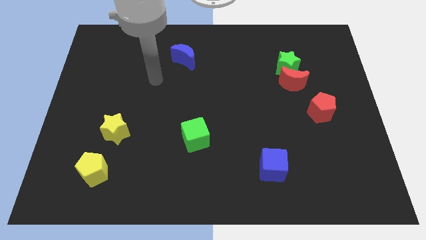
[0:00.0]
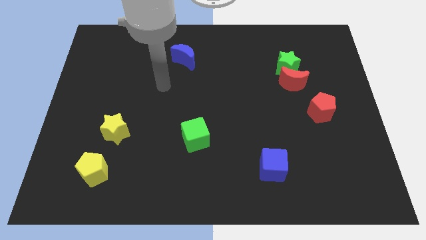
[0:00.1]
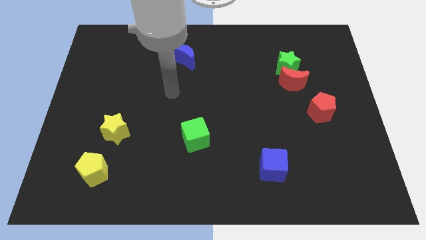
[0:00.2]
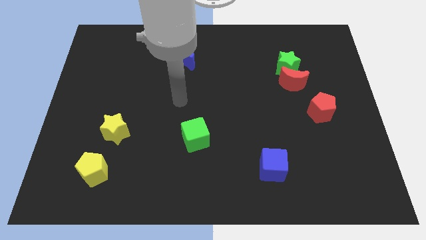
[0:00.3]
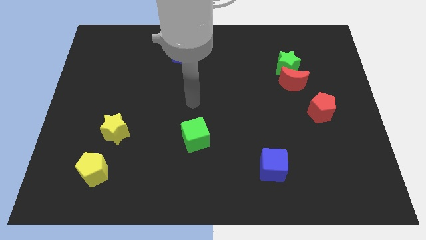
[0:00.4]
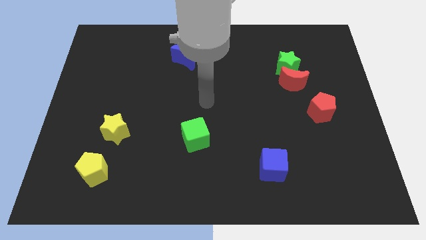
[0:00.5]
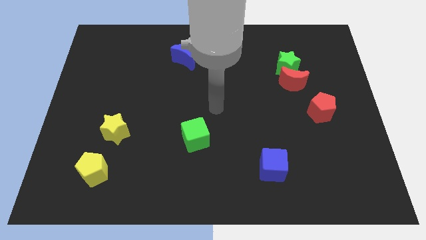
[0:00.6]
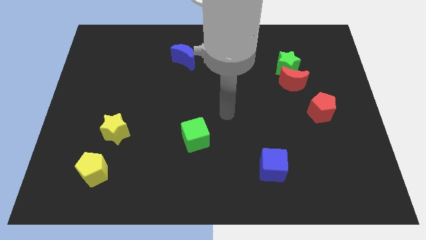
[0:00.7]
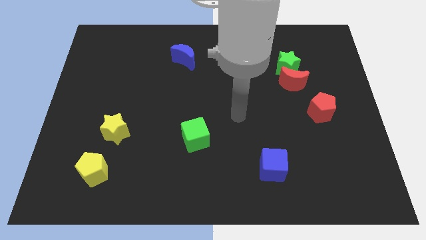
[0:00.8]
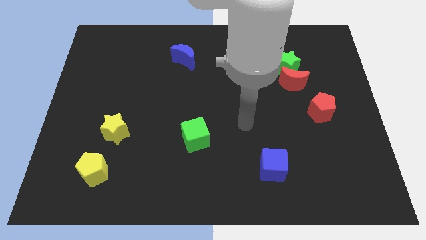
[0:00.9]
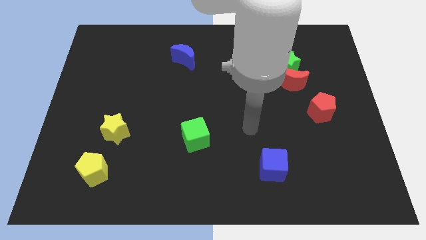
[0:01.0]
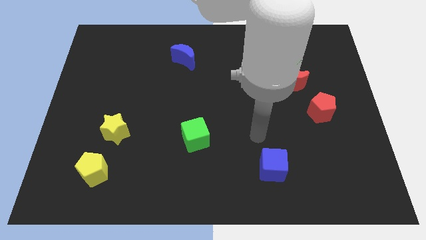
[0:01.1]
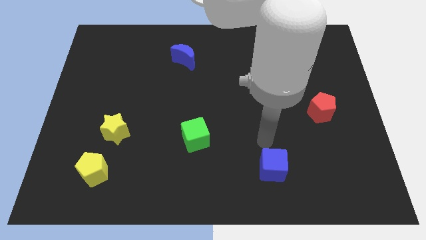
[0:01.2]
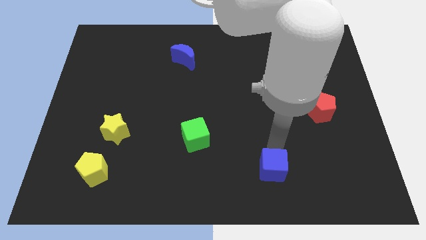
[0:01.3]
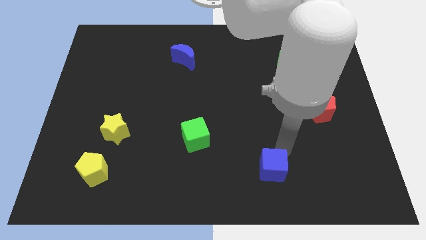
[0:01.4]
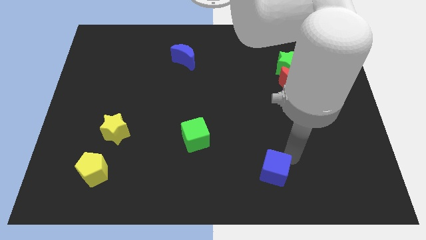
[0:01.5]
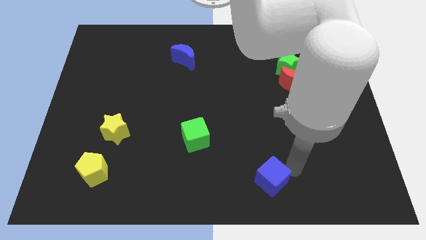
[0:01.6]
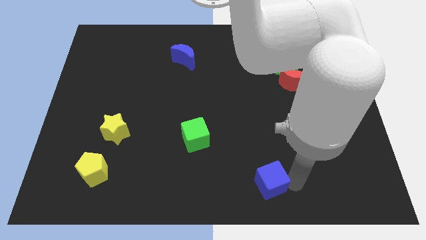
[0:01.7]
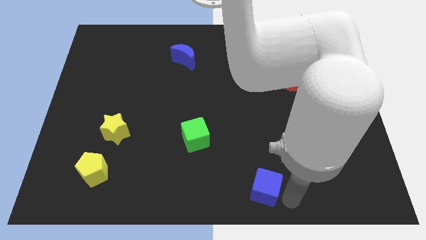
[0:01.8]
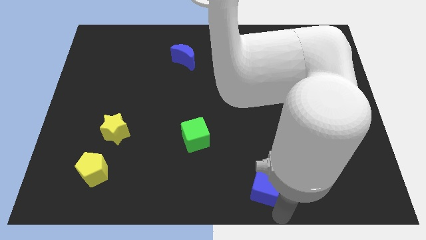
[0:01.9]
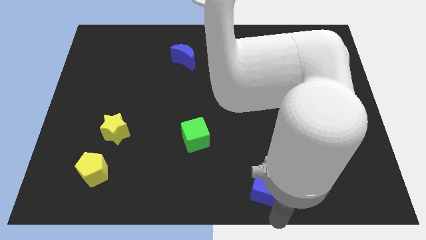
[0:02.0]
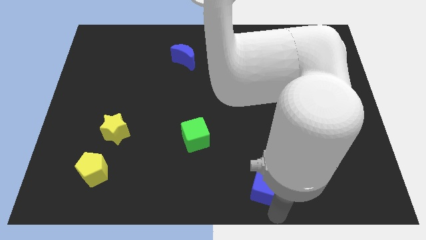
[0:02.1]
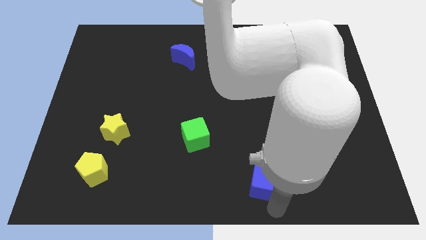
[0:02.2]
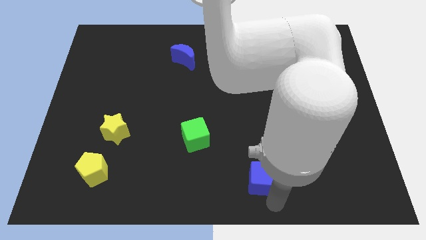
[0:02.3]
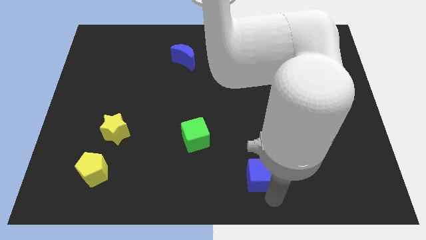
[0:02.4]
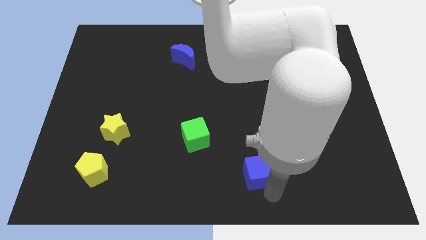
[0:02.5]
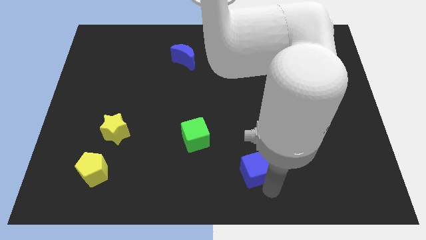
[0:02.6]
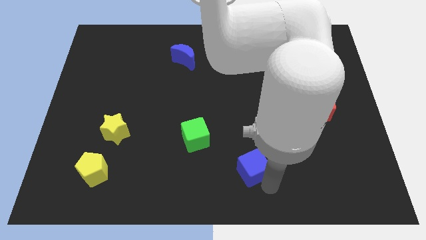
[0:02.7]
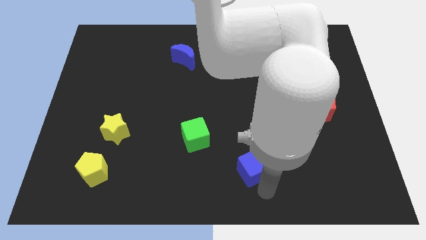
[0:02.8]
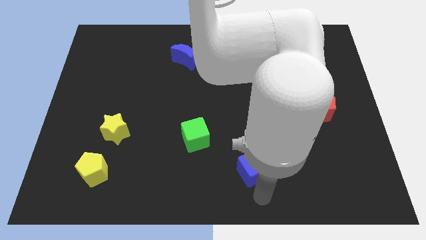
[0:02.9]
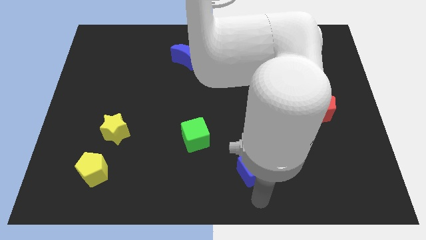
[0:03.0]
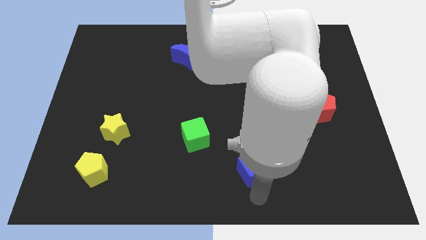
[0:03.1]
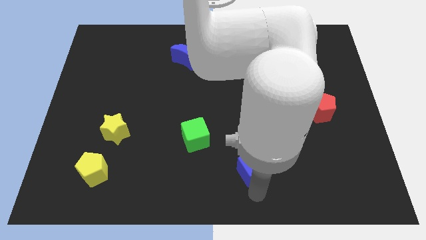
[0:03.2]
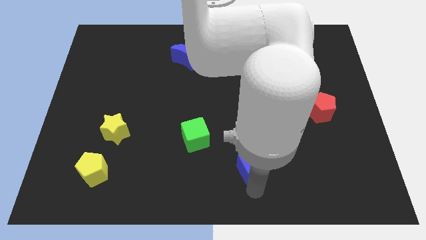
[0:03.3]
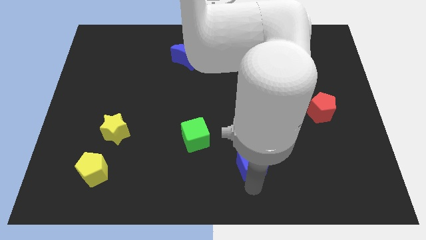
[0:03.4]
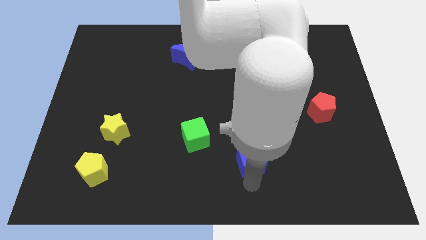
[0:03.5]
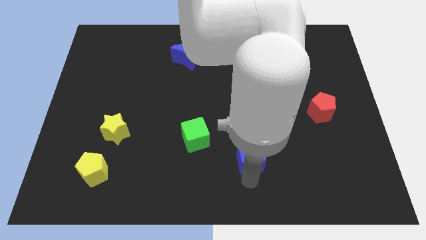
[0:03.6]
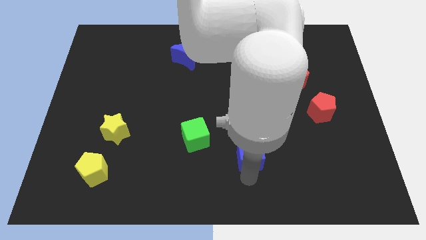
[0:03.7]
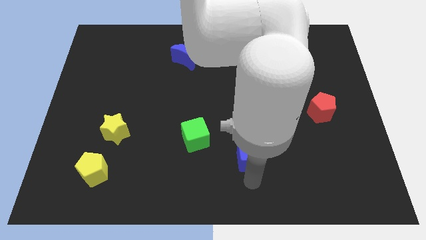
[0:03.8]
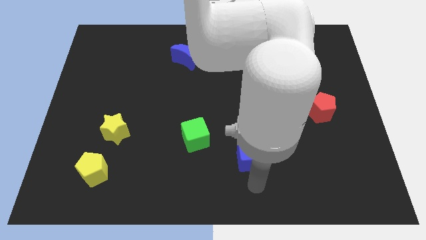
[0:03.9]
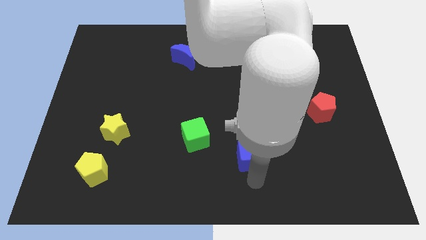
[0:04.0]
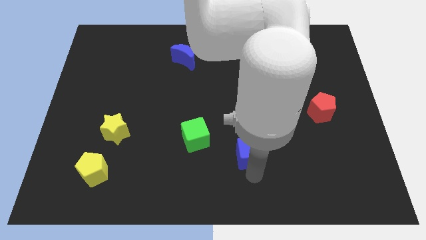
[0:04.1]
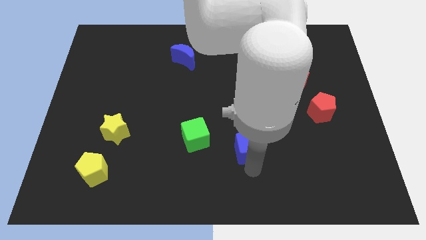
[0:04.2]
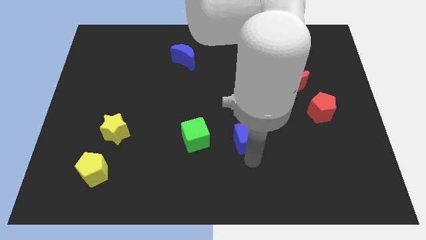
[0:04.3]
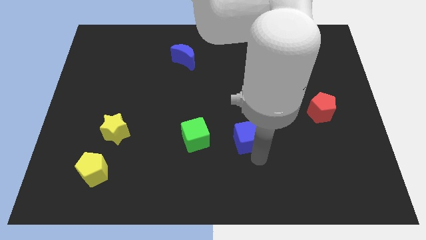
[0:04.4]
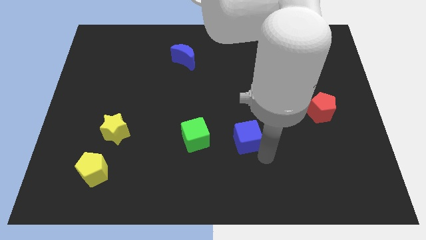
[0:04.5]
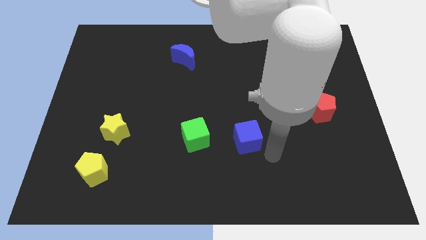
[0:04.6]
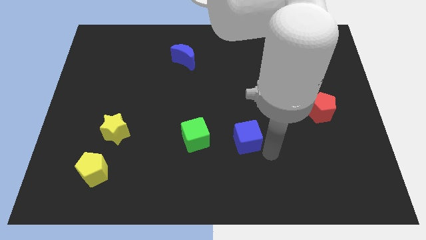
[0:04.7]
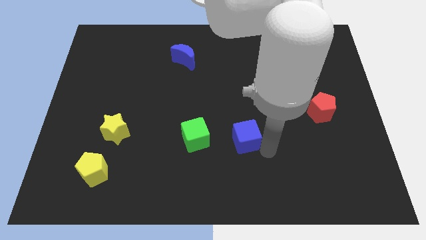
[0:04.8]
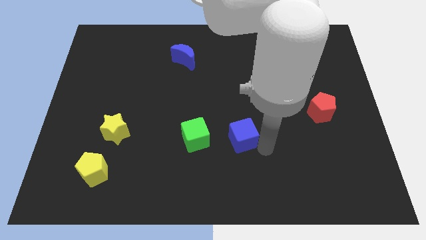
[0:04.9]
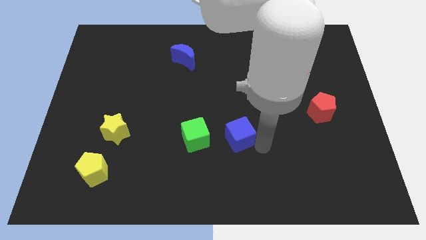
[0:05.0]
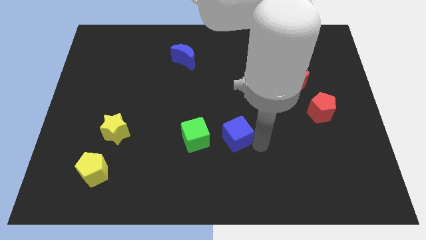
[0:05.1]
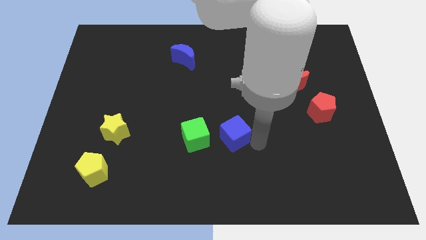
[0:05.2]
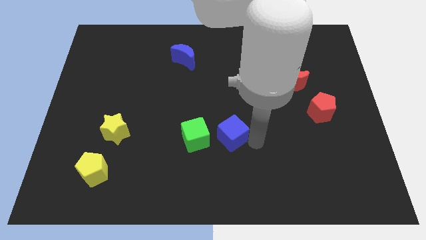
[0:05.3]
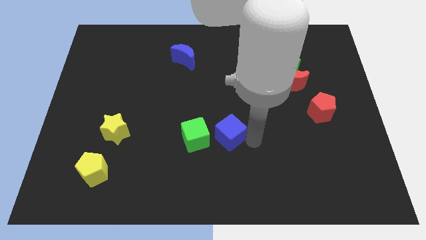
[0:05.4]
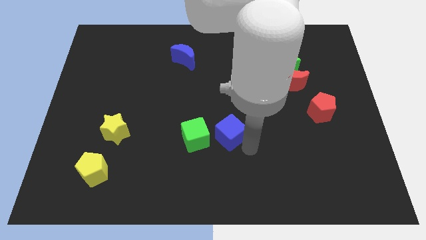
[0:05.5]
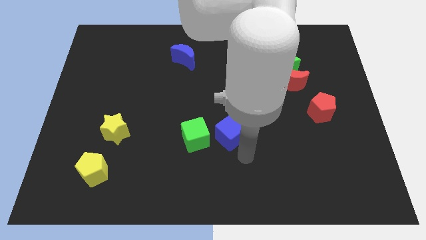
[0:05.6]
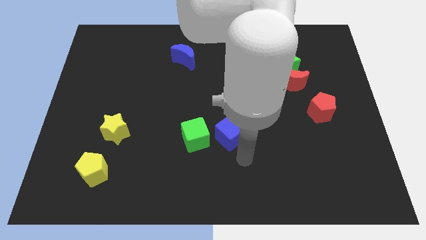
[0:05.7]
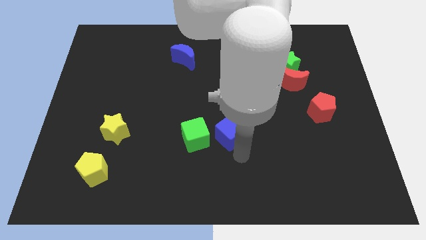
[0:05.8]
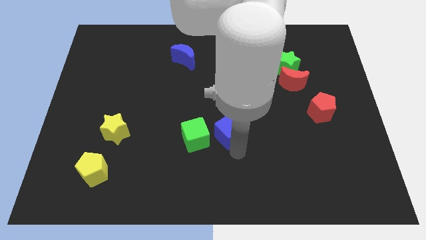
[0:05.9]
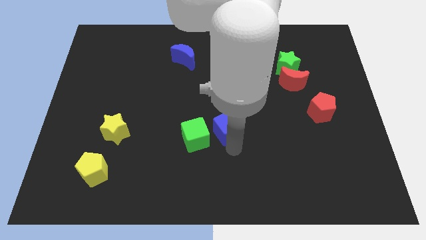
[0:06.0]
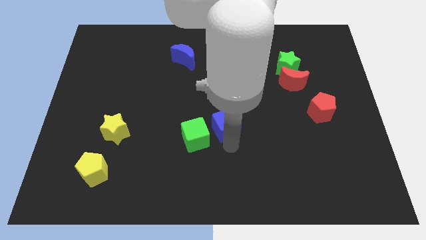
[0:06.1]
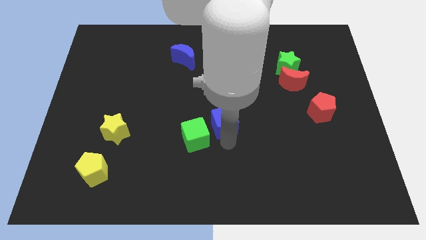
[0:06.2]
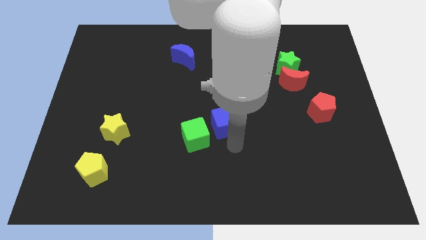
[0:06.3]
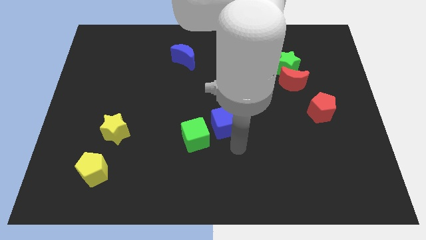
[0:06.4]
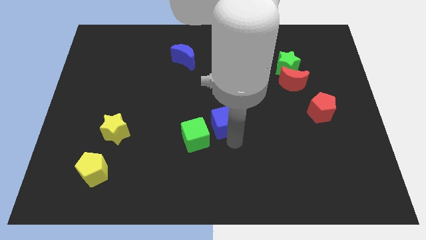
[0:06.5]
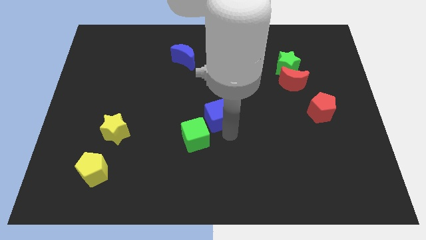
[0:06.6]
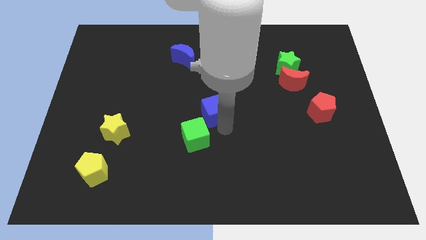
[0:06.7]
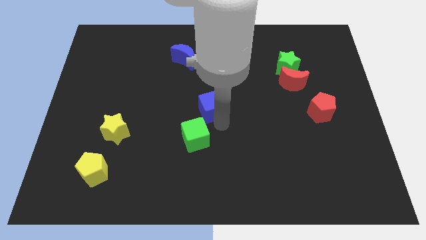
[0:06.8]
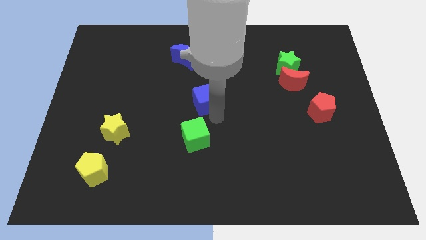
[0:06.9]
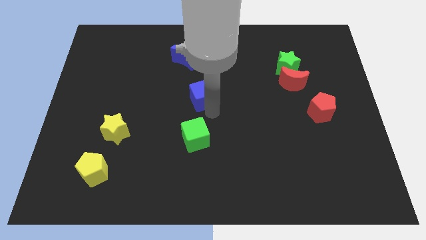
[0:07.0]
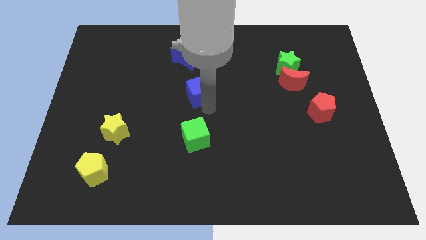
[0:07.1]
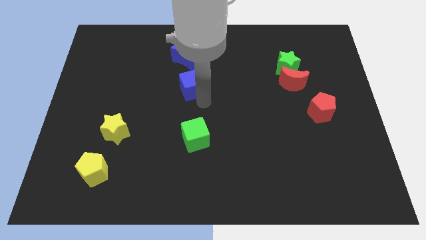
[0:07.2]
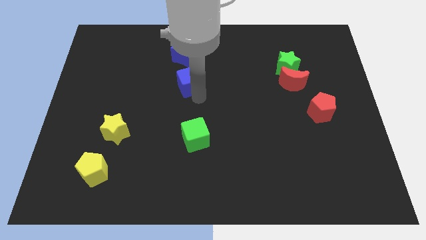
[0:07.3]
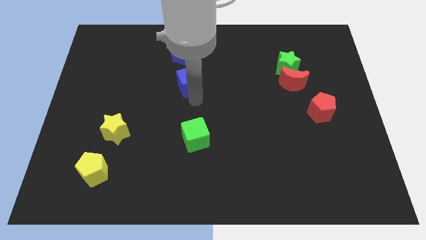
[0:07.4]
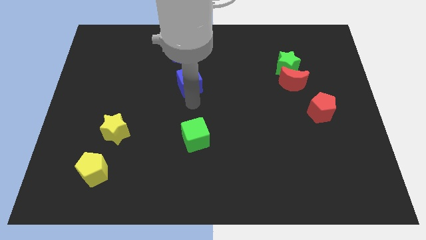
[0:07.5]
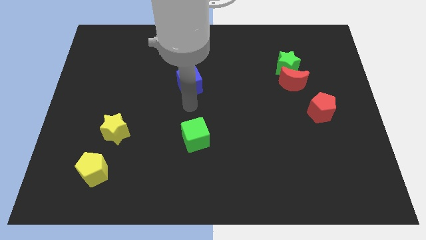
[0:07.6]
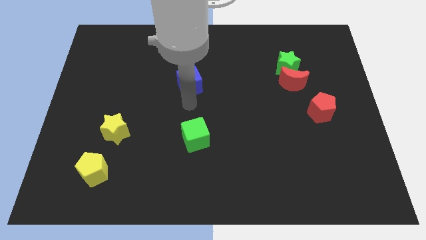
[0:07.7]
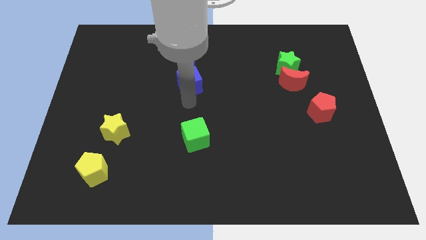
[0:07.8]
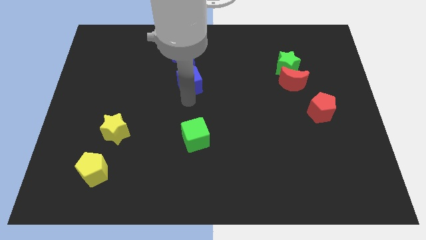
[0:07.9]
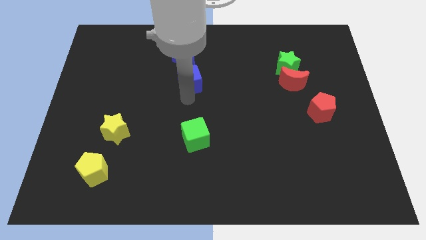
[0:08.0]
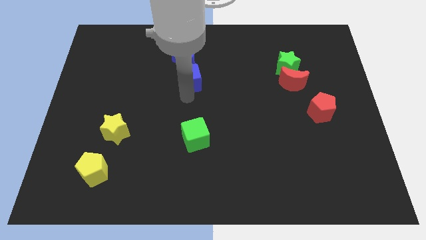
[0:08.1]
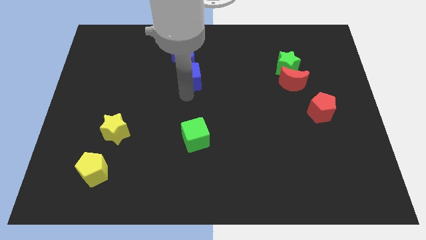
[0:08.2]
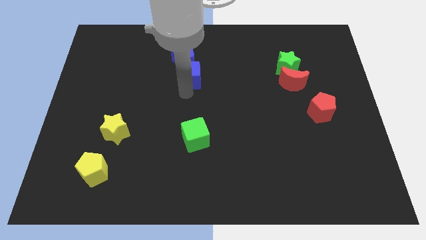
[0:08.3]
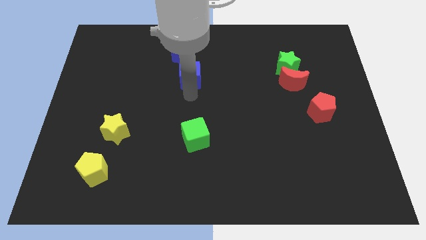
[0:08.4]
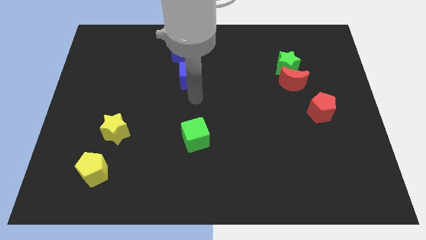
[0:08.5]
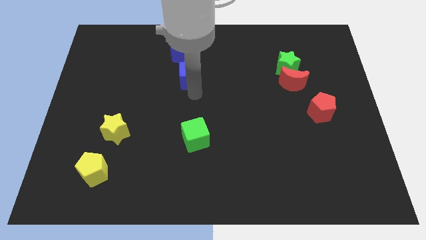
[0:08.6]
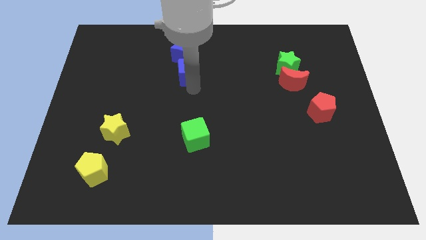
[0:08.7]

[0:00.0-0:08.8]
push the blue cube next to the blue moon
